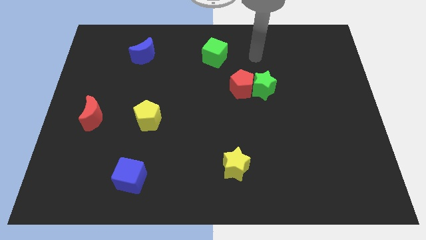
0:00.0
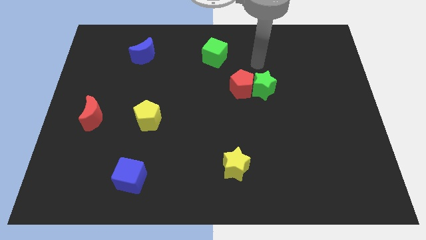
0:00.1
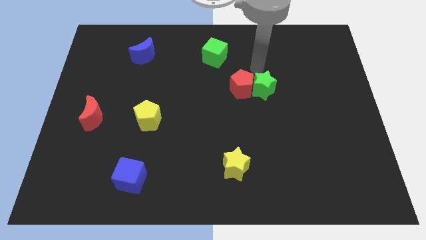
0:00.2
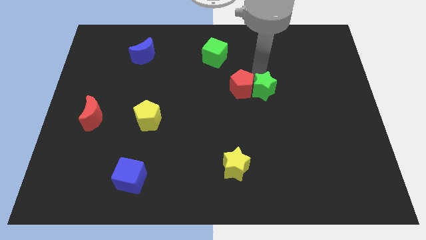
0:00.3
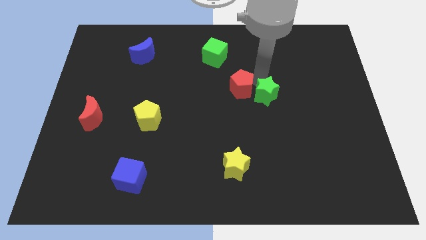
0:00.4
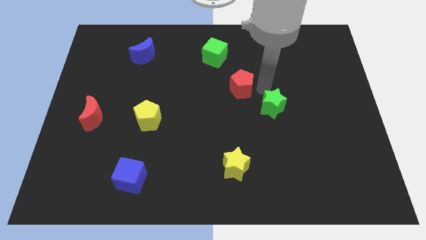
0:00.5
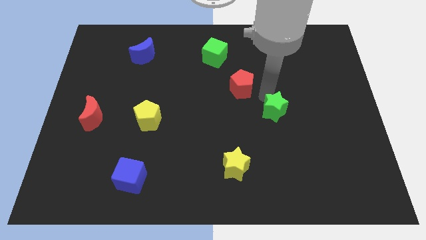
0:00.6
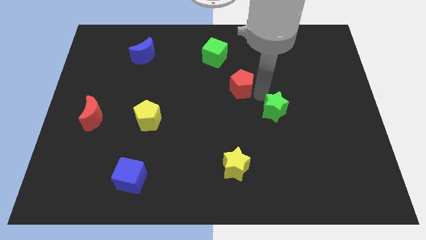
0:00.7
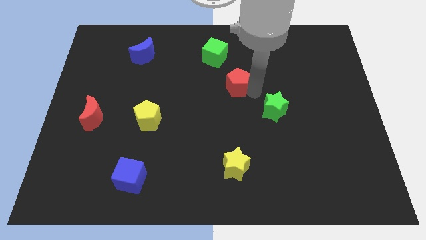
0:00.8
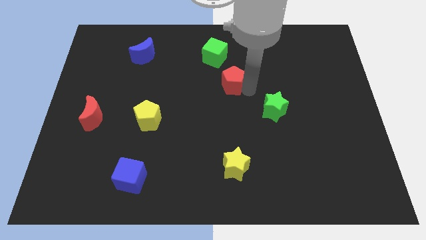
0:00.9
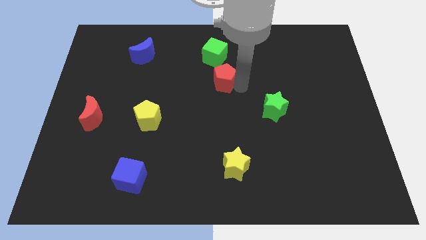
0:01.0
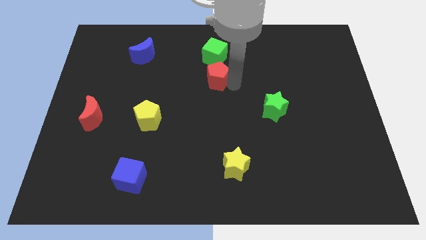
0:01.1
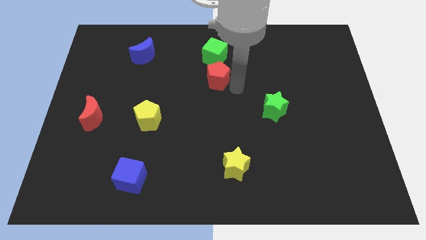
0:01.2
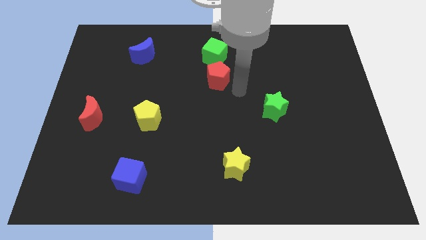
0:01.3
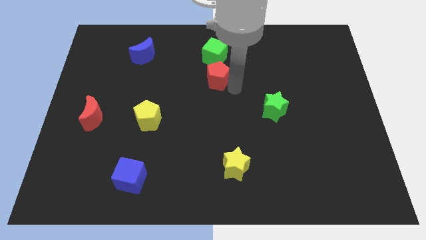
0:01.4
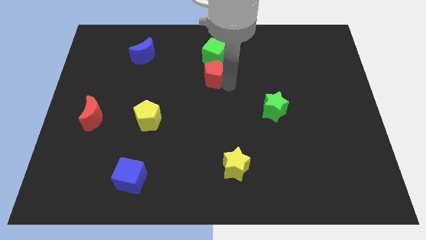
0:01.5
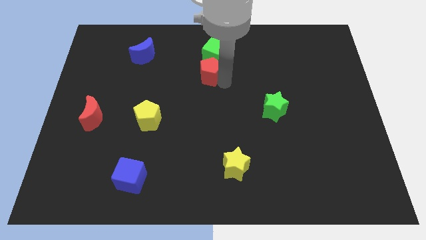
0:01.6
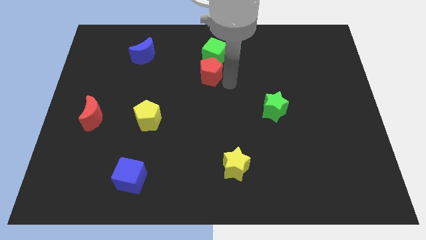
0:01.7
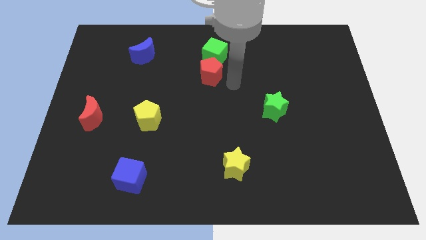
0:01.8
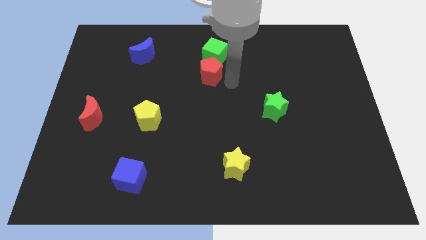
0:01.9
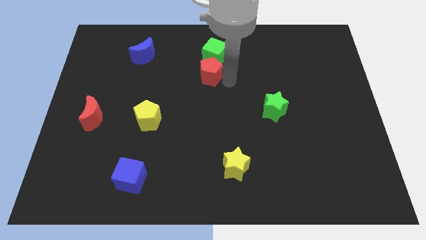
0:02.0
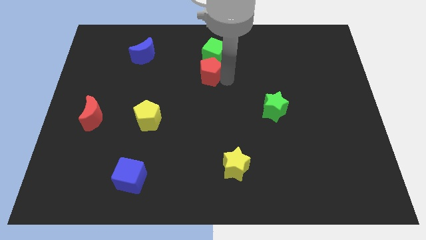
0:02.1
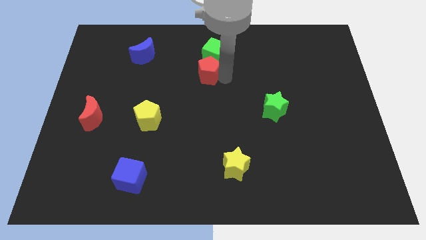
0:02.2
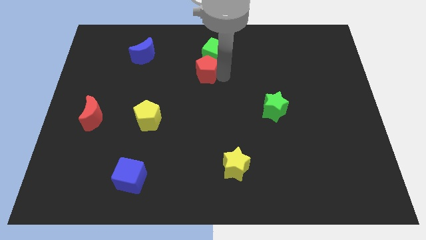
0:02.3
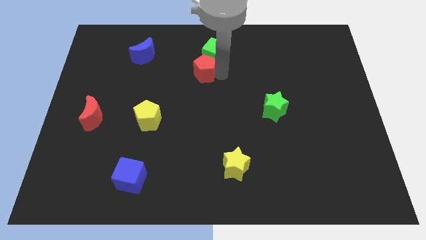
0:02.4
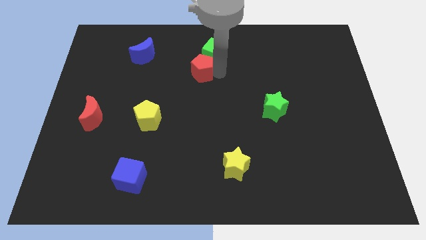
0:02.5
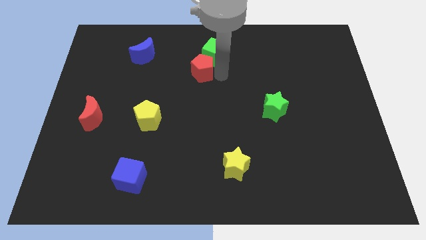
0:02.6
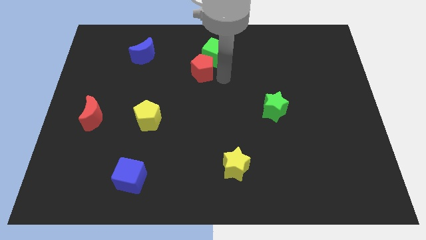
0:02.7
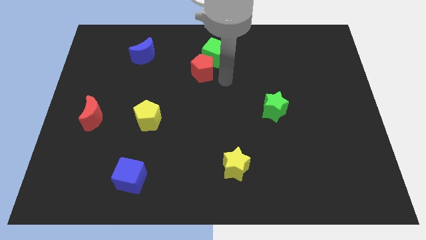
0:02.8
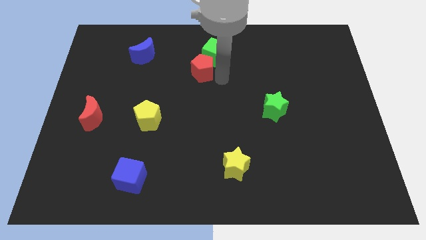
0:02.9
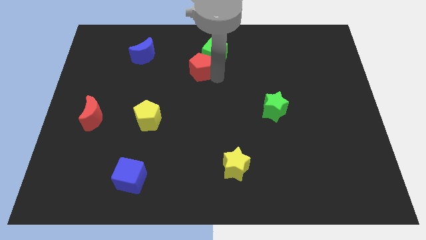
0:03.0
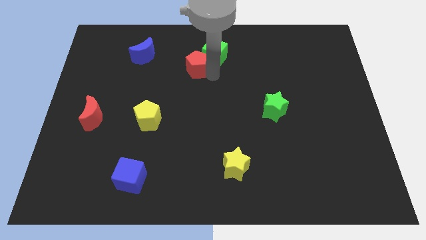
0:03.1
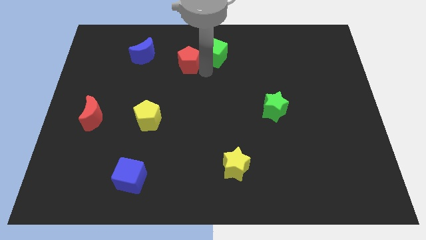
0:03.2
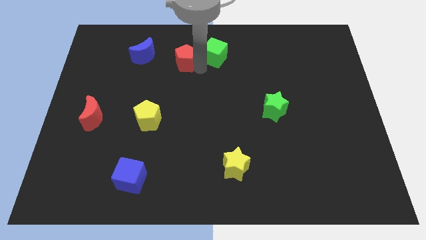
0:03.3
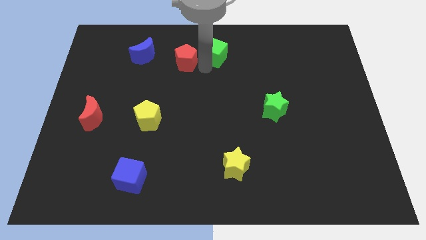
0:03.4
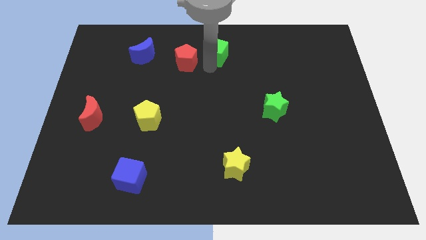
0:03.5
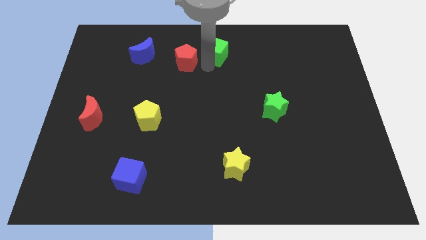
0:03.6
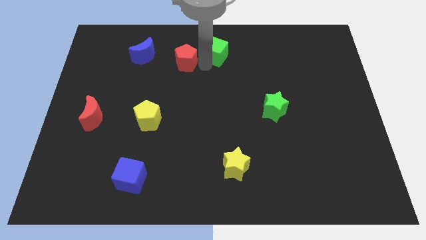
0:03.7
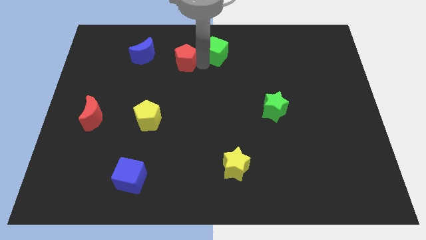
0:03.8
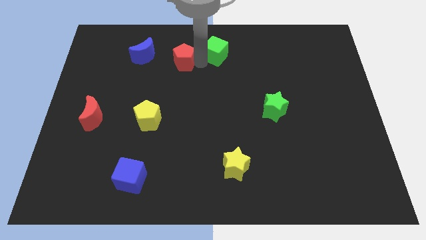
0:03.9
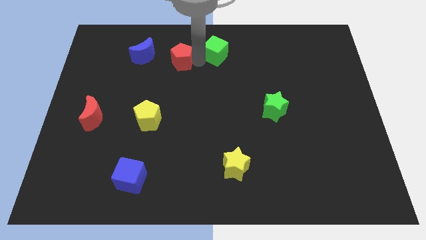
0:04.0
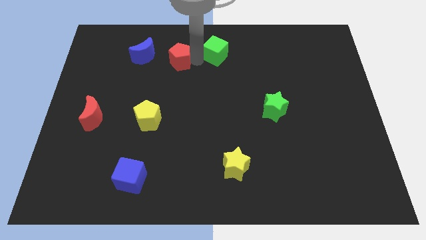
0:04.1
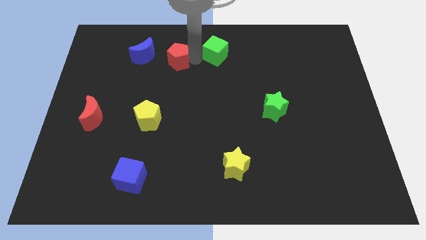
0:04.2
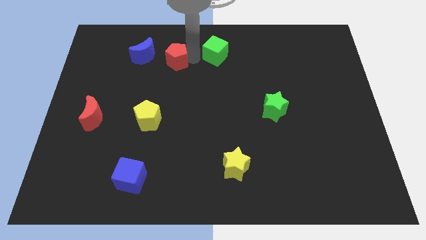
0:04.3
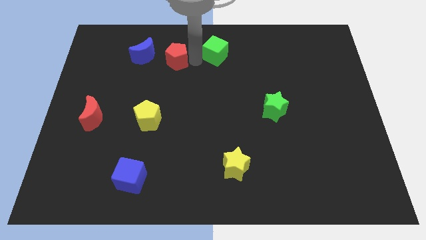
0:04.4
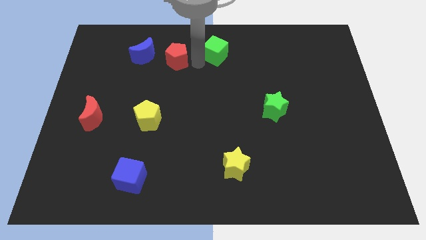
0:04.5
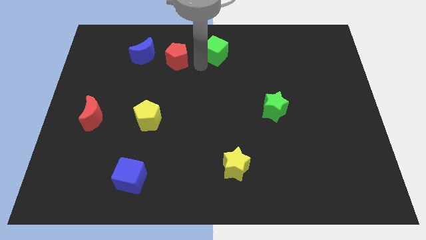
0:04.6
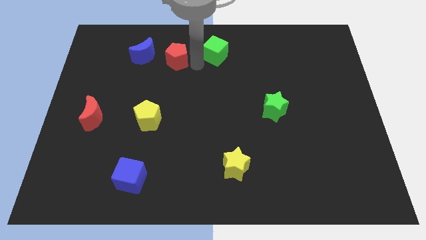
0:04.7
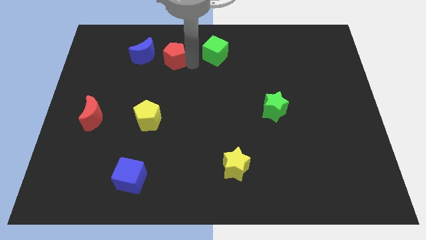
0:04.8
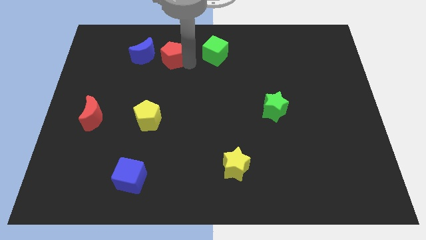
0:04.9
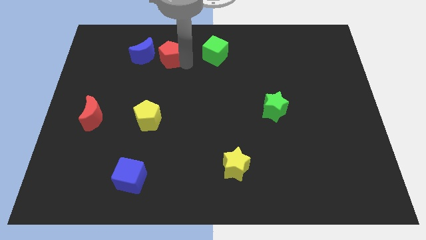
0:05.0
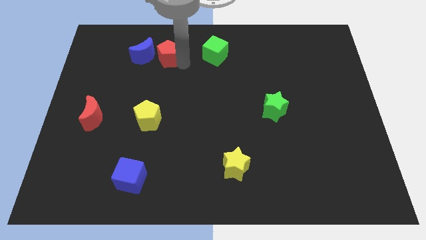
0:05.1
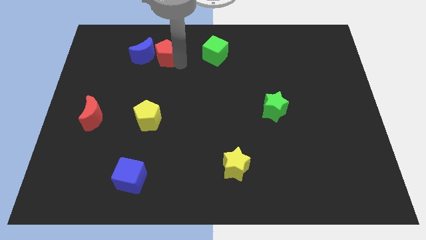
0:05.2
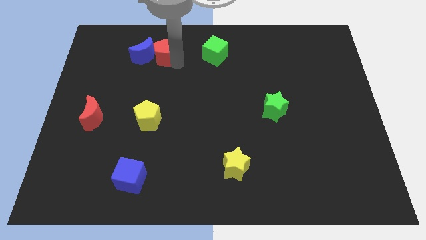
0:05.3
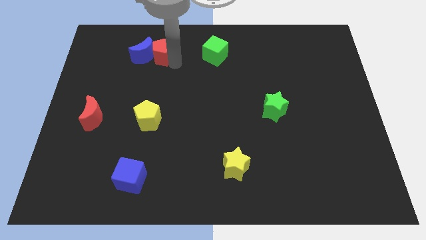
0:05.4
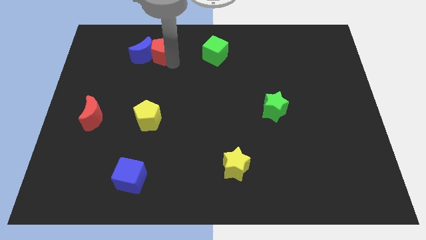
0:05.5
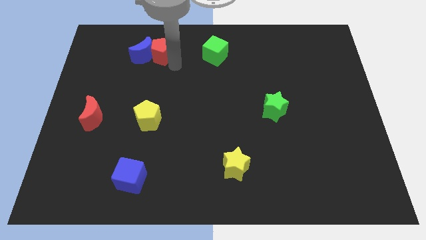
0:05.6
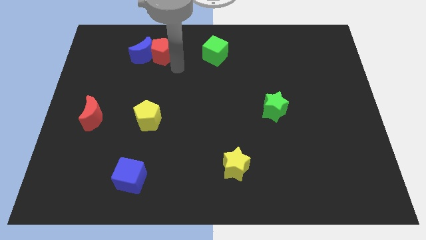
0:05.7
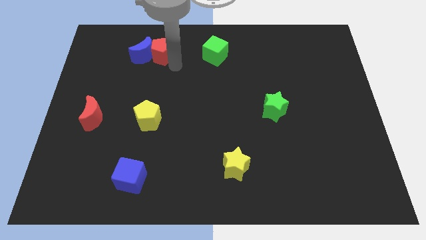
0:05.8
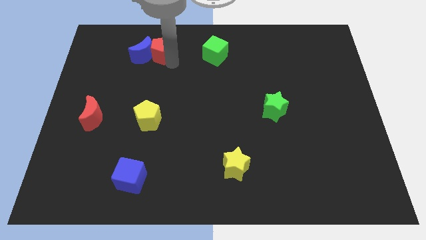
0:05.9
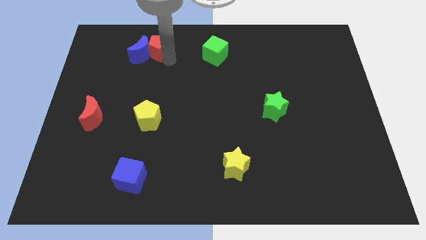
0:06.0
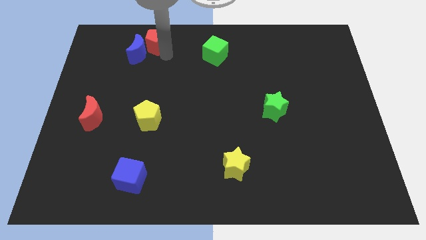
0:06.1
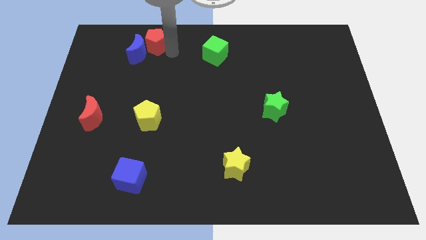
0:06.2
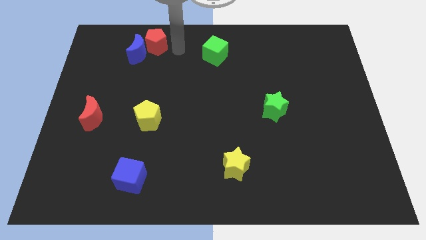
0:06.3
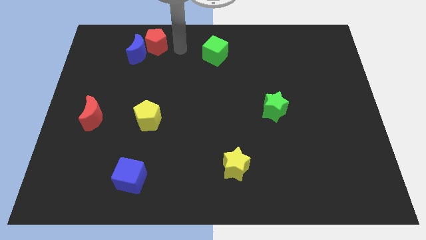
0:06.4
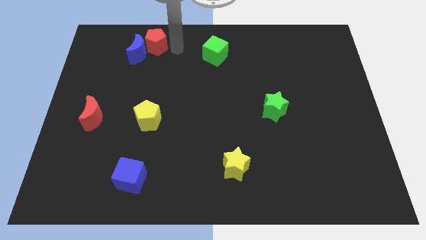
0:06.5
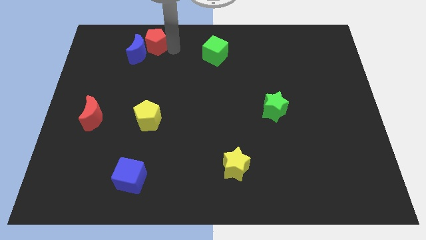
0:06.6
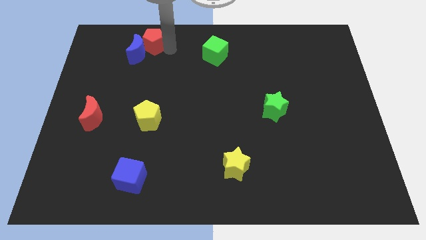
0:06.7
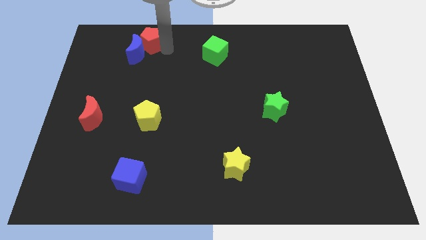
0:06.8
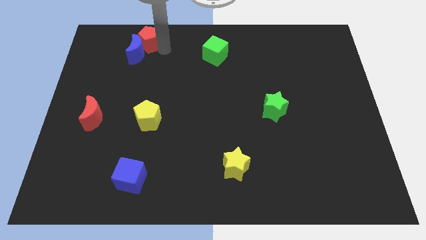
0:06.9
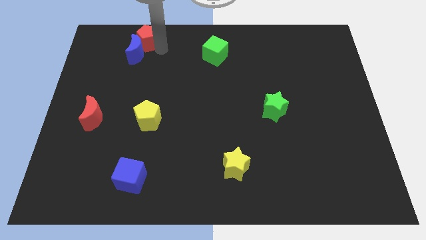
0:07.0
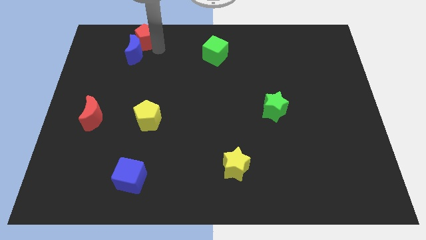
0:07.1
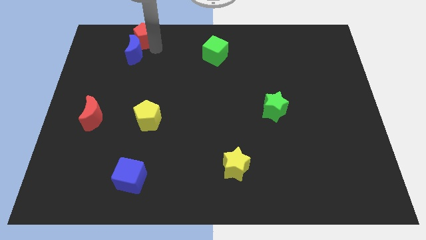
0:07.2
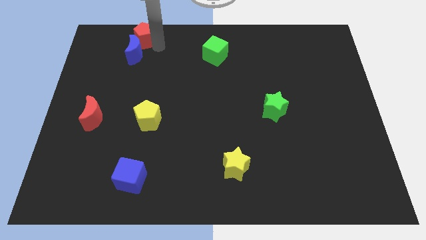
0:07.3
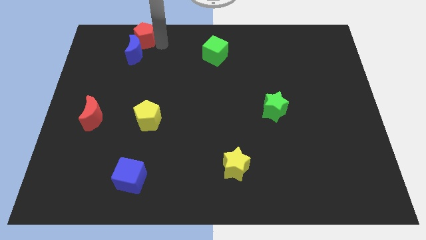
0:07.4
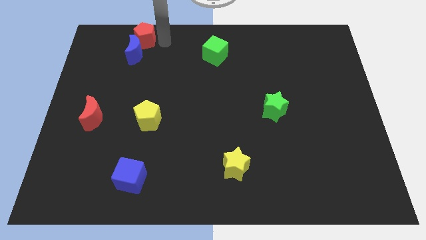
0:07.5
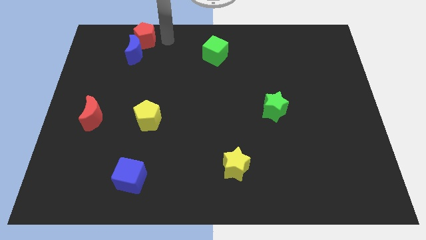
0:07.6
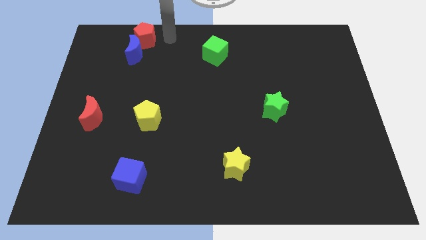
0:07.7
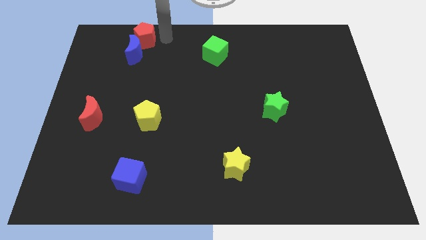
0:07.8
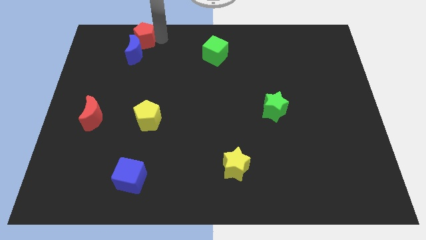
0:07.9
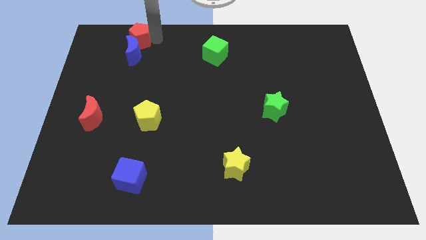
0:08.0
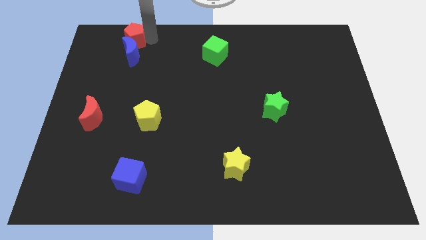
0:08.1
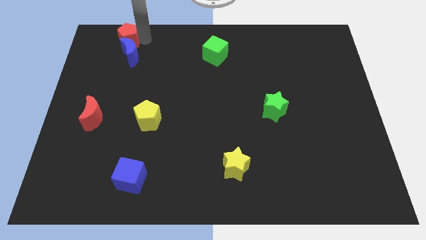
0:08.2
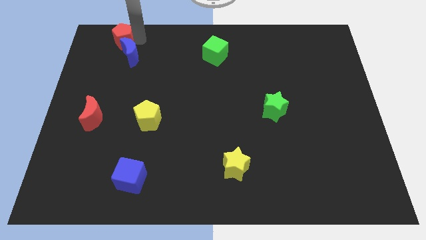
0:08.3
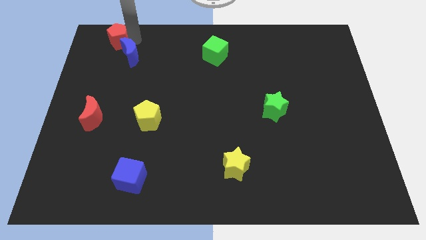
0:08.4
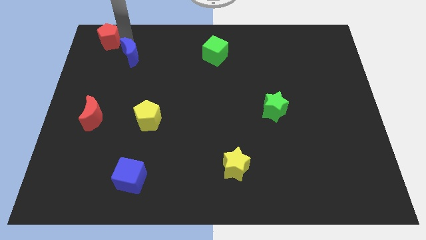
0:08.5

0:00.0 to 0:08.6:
move the red pentagon to the top left corner
